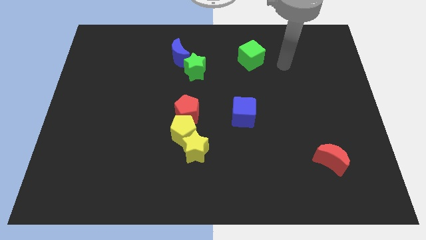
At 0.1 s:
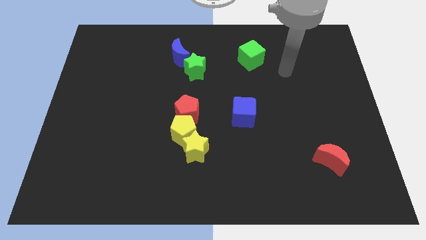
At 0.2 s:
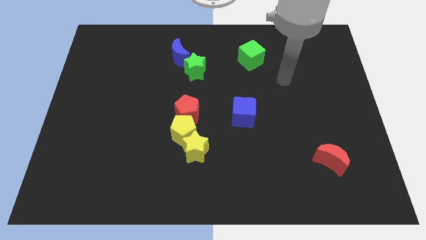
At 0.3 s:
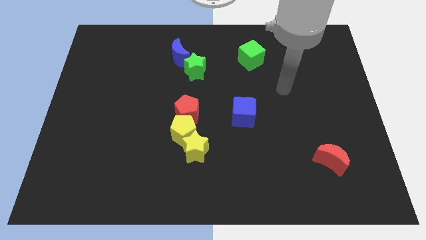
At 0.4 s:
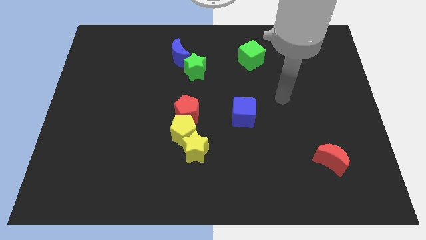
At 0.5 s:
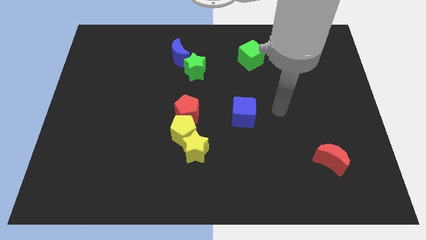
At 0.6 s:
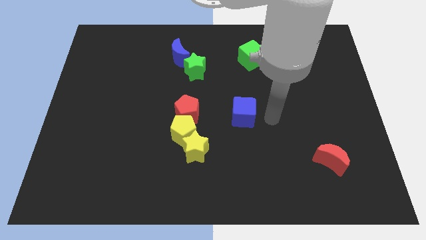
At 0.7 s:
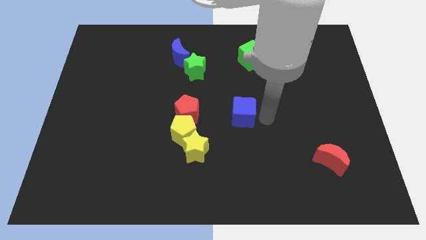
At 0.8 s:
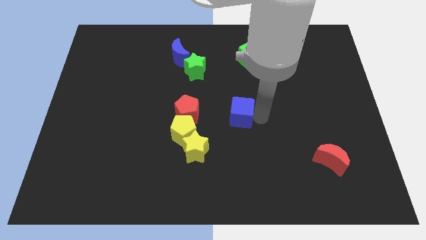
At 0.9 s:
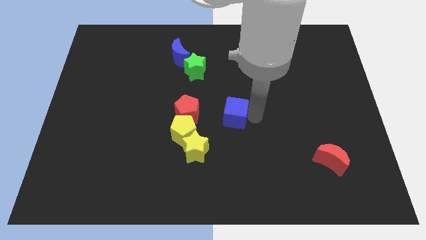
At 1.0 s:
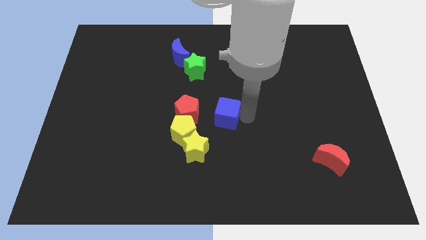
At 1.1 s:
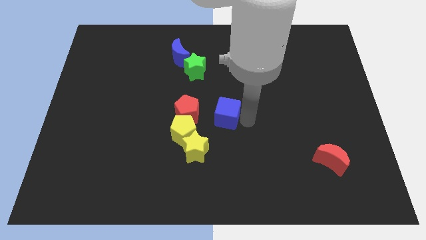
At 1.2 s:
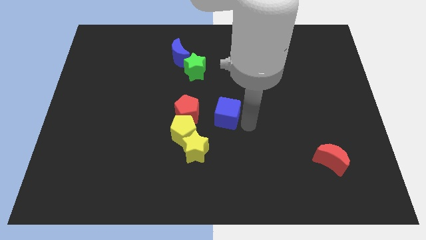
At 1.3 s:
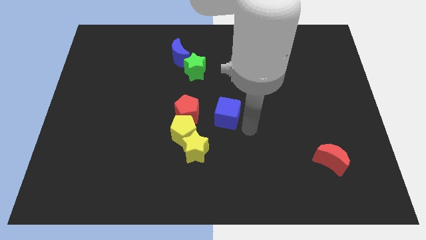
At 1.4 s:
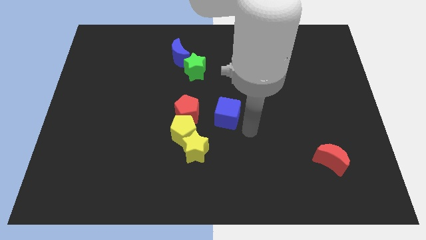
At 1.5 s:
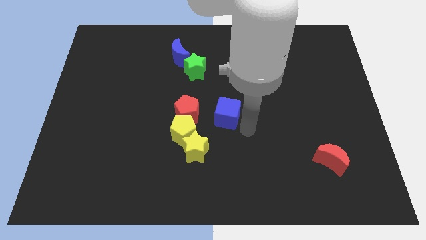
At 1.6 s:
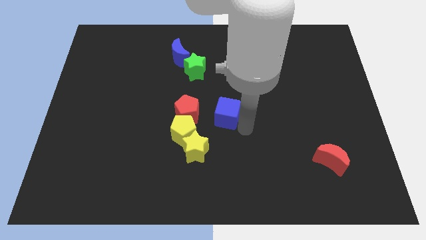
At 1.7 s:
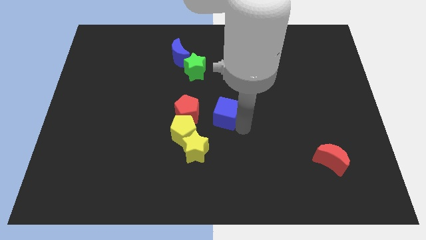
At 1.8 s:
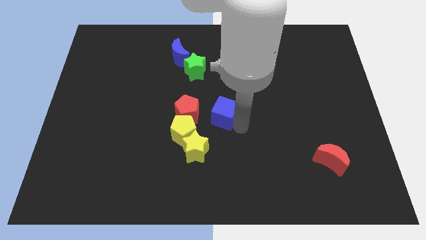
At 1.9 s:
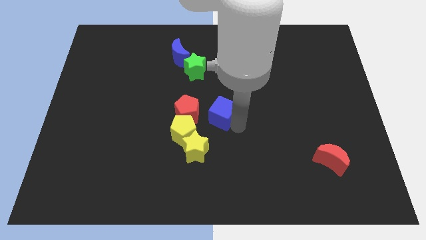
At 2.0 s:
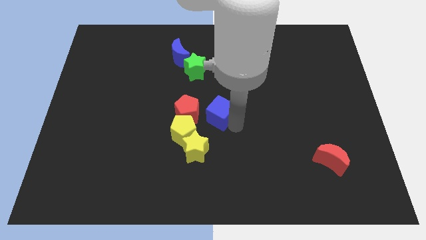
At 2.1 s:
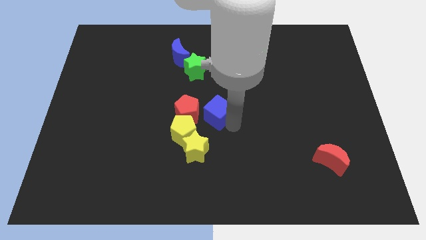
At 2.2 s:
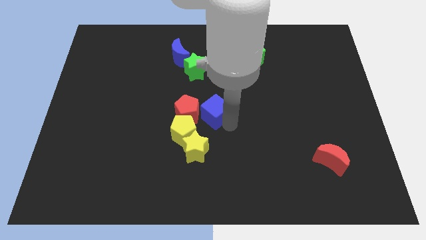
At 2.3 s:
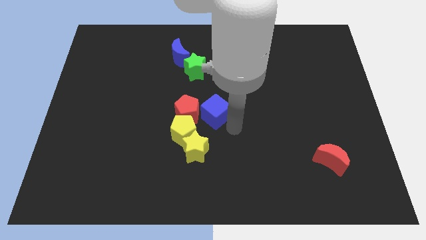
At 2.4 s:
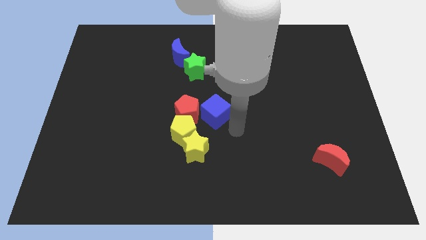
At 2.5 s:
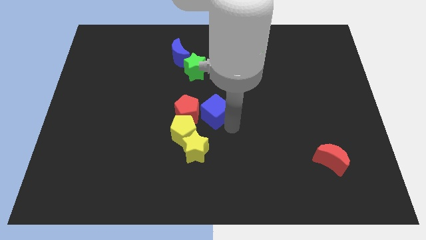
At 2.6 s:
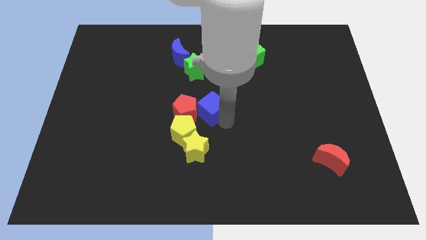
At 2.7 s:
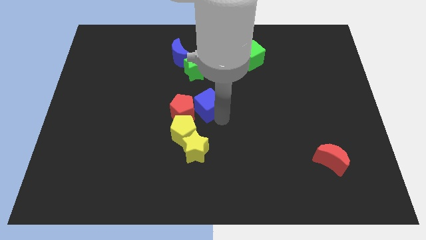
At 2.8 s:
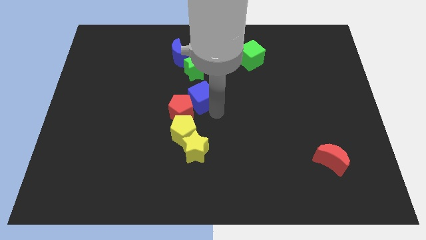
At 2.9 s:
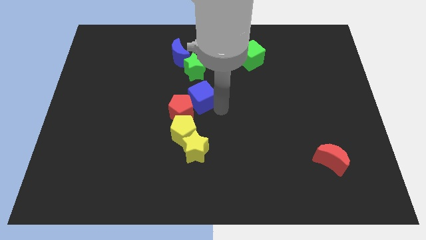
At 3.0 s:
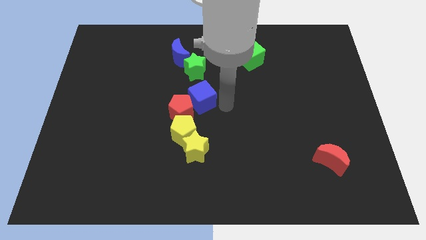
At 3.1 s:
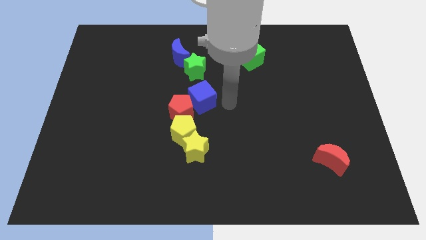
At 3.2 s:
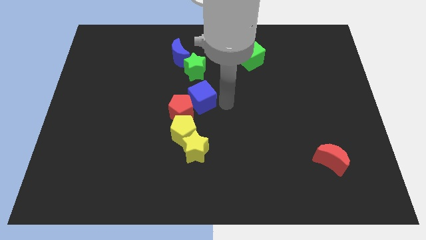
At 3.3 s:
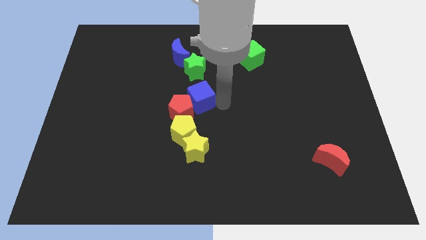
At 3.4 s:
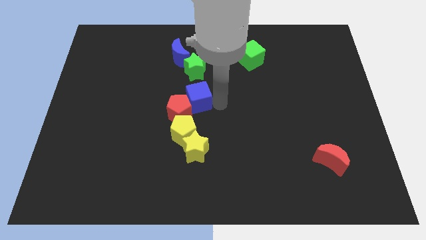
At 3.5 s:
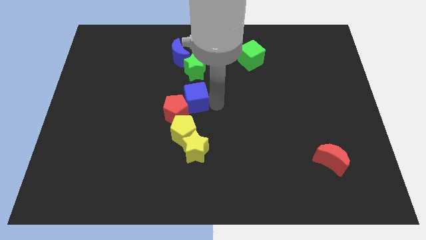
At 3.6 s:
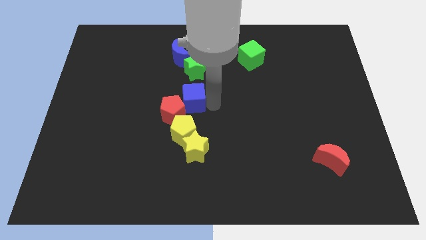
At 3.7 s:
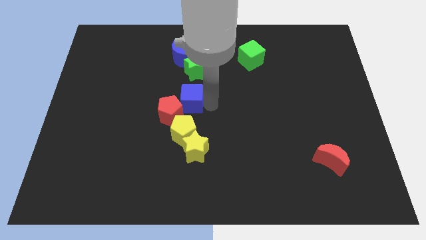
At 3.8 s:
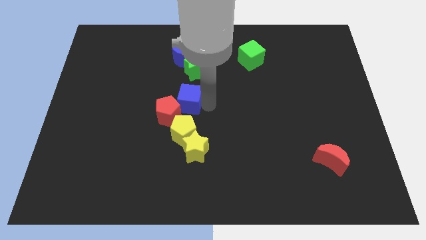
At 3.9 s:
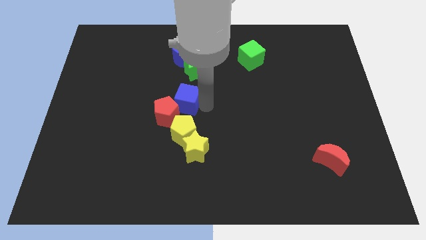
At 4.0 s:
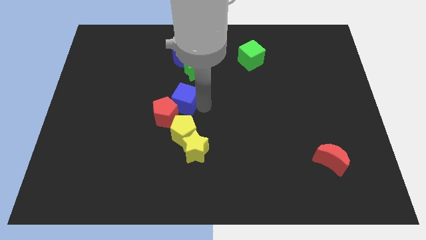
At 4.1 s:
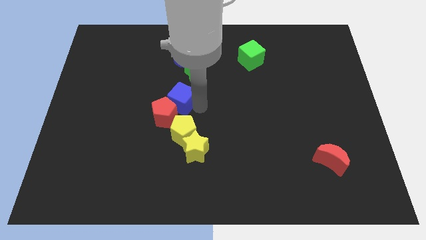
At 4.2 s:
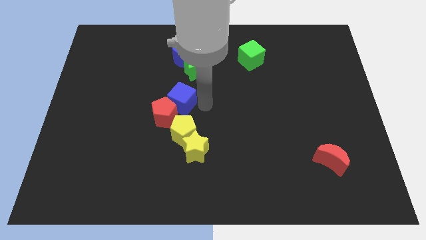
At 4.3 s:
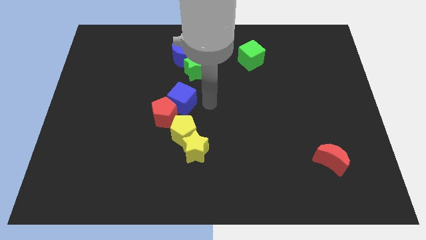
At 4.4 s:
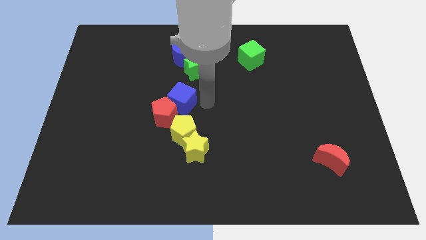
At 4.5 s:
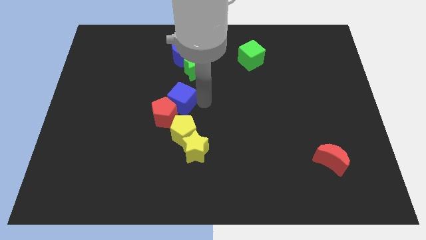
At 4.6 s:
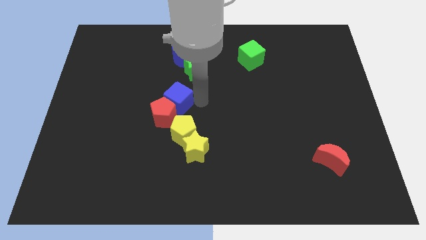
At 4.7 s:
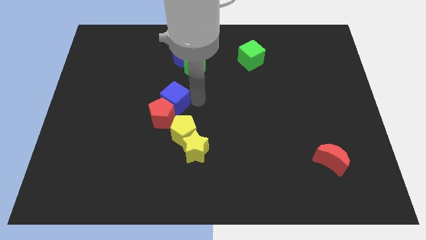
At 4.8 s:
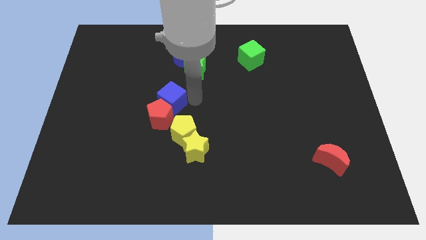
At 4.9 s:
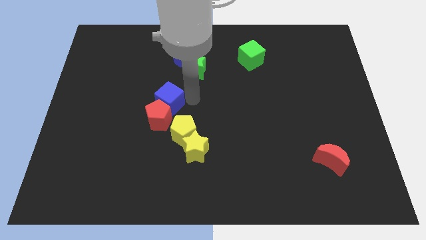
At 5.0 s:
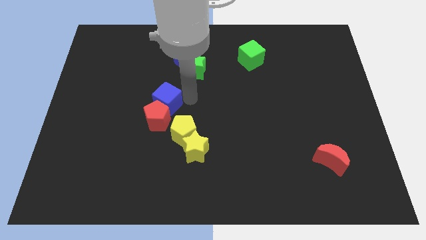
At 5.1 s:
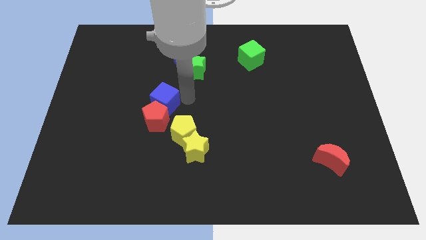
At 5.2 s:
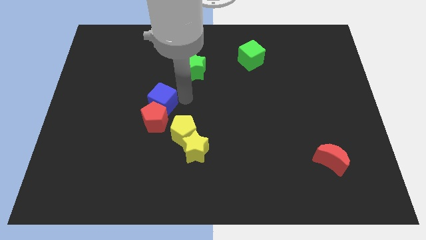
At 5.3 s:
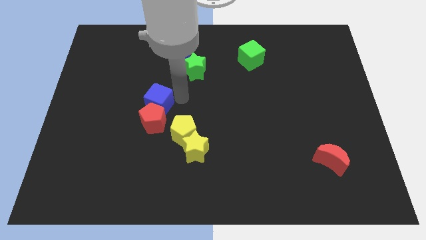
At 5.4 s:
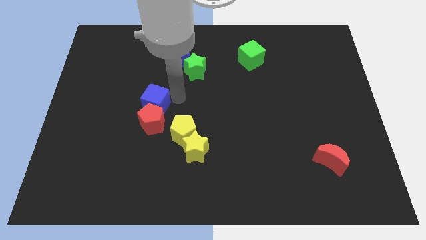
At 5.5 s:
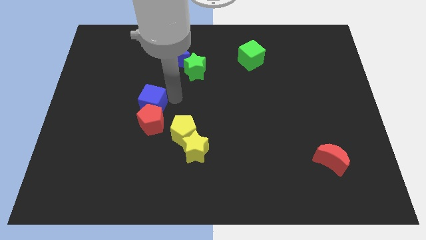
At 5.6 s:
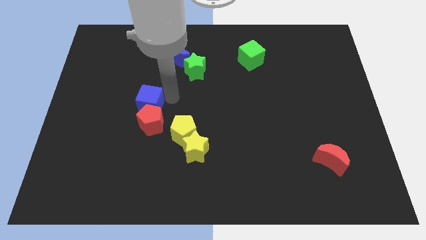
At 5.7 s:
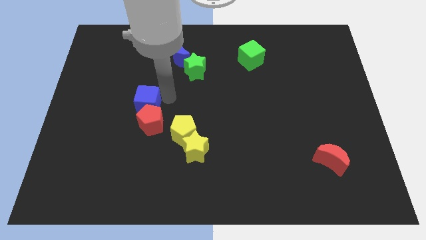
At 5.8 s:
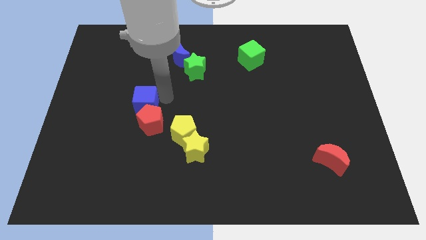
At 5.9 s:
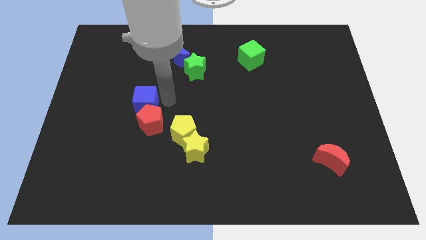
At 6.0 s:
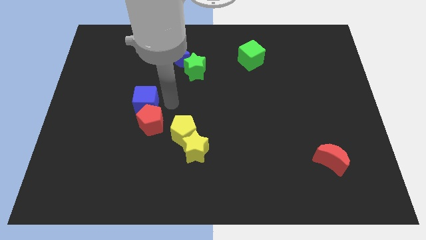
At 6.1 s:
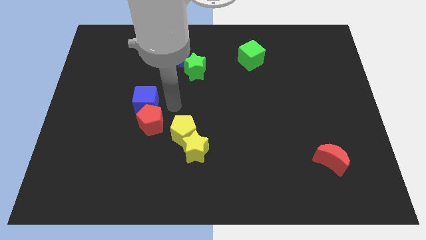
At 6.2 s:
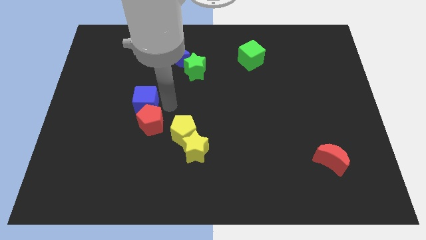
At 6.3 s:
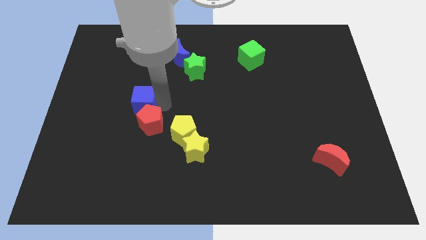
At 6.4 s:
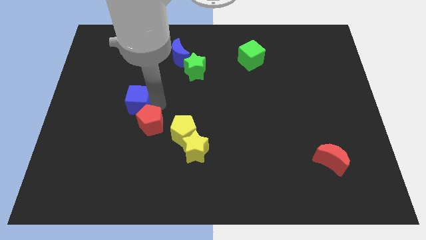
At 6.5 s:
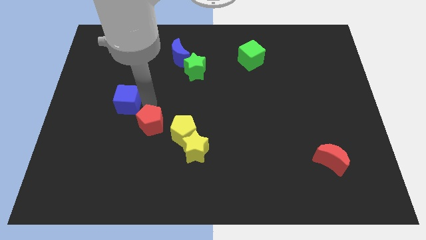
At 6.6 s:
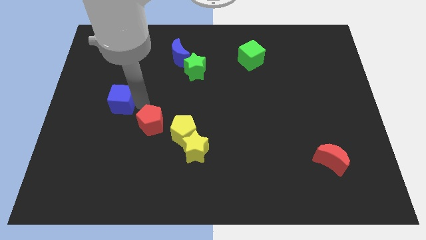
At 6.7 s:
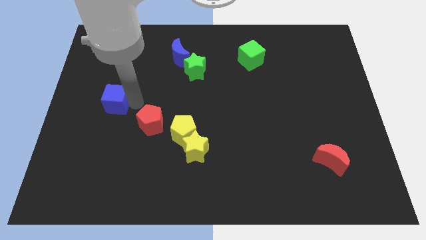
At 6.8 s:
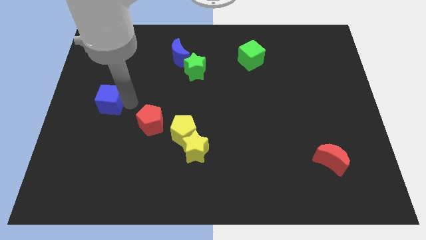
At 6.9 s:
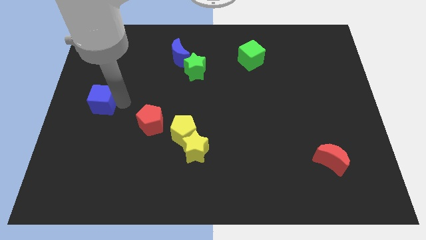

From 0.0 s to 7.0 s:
put the blue cube to the left side of the board
